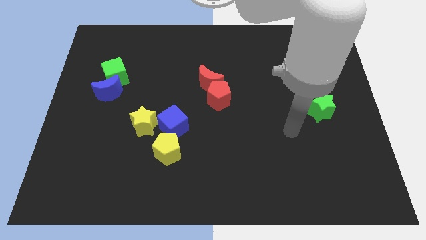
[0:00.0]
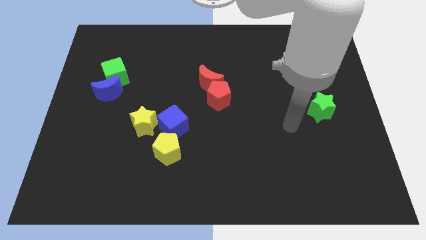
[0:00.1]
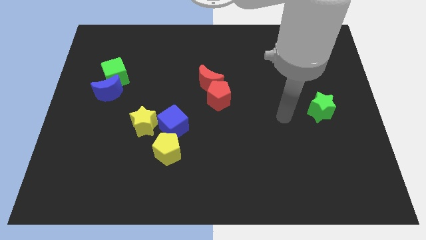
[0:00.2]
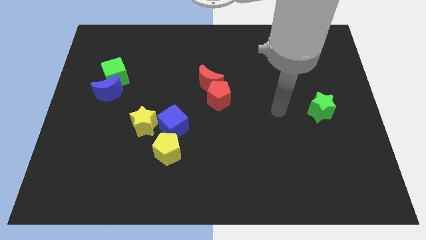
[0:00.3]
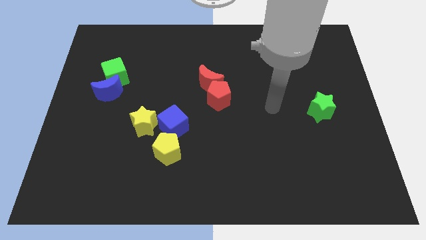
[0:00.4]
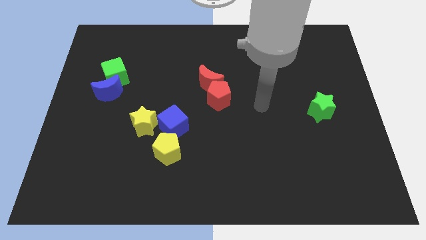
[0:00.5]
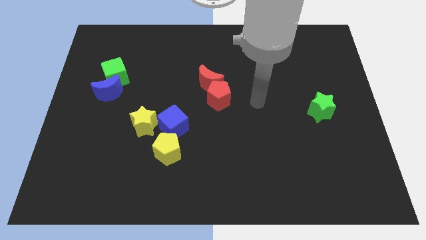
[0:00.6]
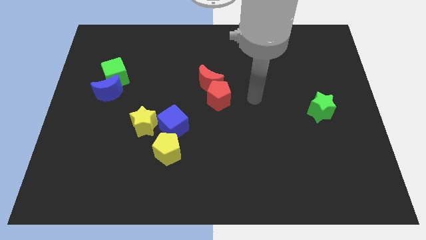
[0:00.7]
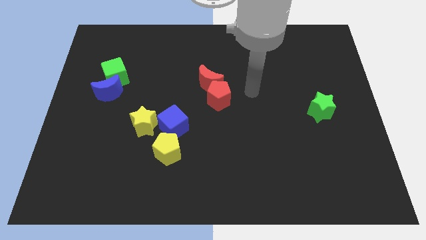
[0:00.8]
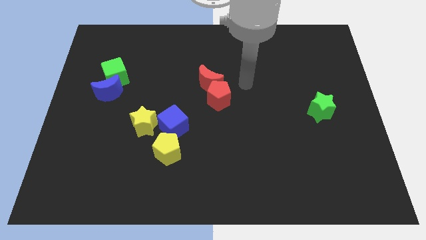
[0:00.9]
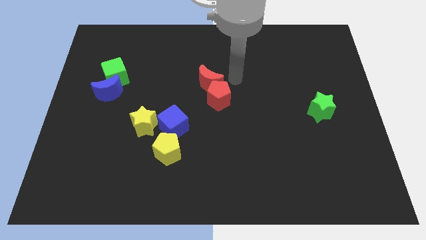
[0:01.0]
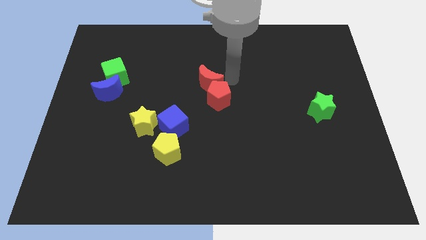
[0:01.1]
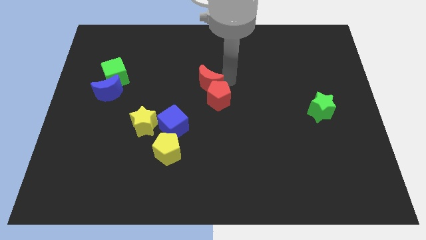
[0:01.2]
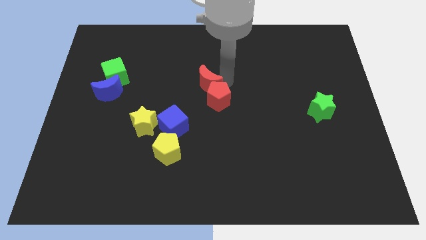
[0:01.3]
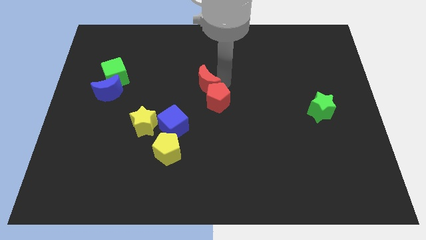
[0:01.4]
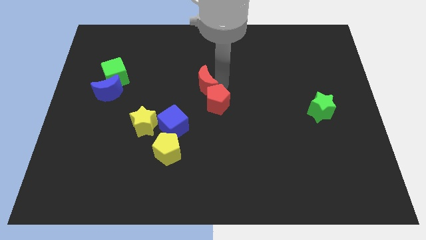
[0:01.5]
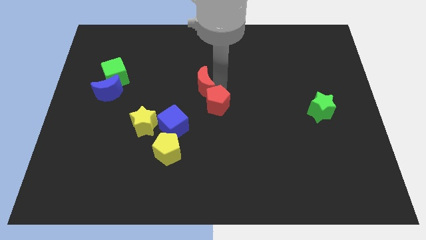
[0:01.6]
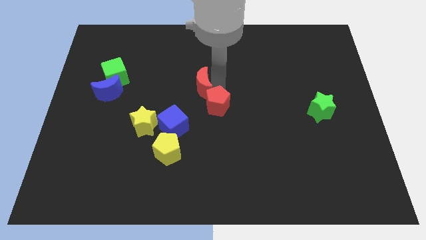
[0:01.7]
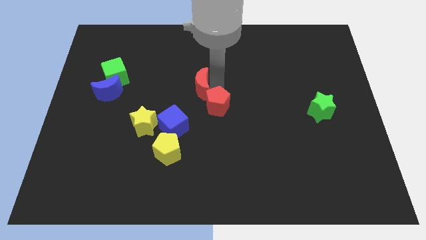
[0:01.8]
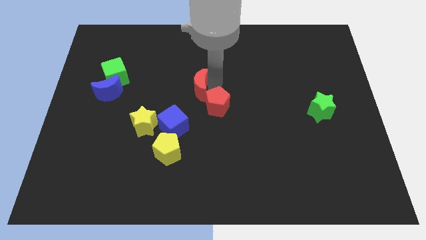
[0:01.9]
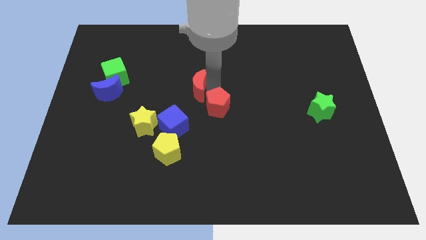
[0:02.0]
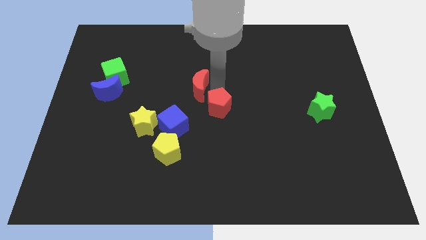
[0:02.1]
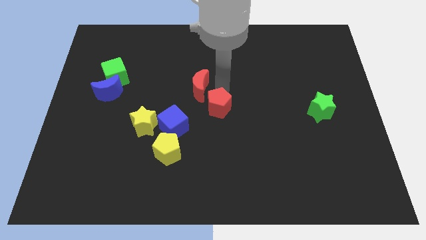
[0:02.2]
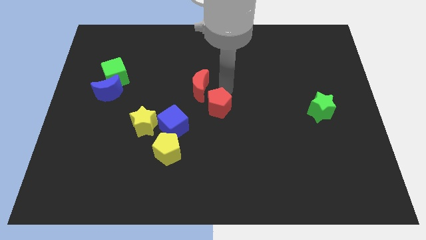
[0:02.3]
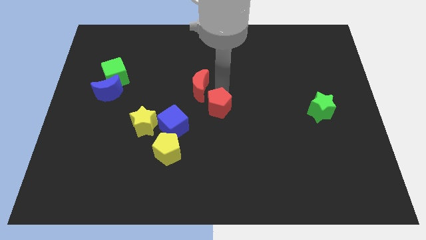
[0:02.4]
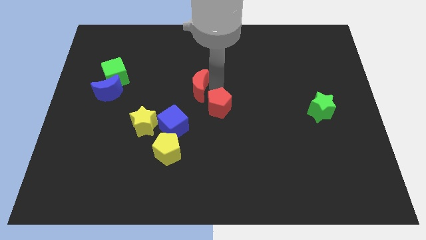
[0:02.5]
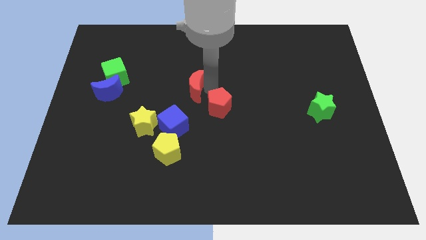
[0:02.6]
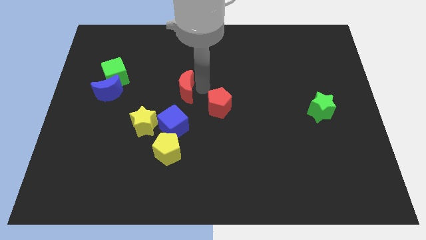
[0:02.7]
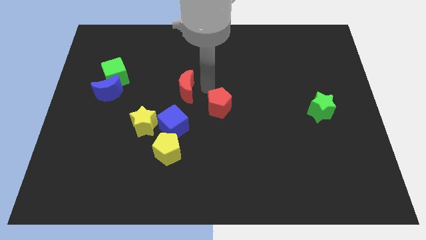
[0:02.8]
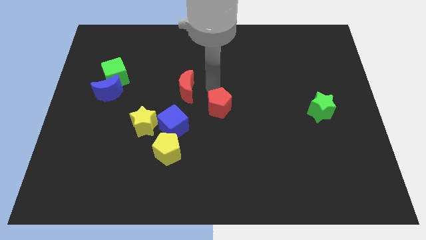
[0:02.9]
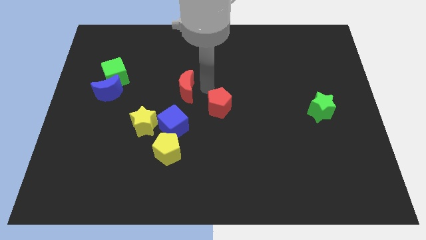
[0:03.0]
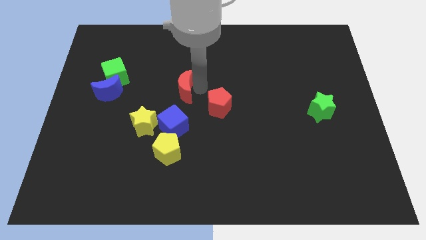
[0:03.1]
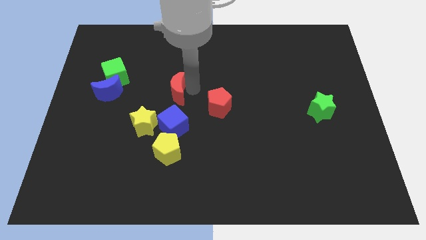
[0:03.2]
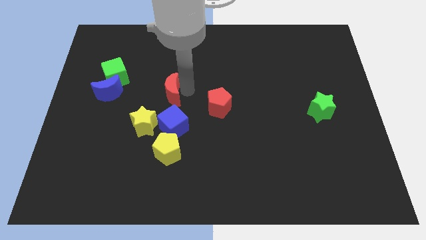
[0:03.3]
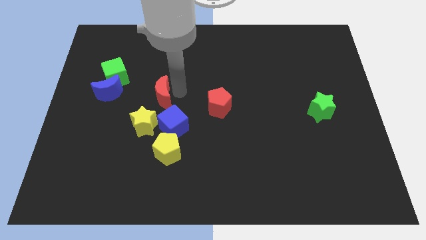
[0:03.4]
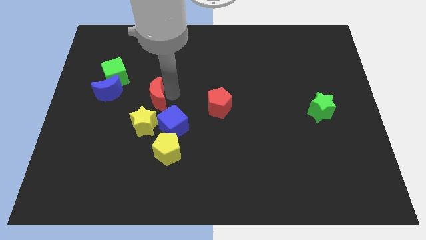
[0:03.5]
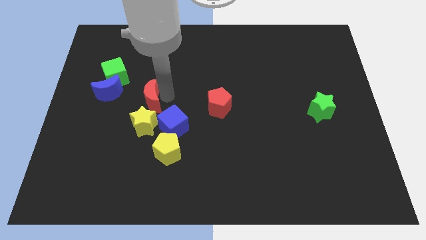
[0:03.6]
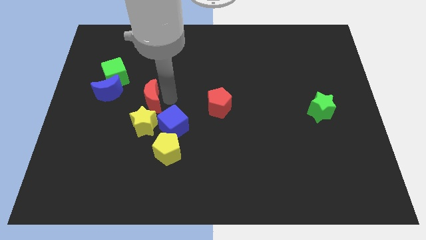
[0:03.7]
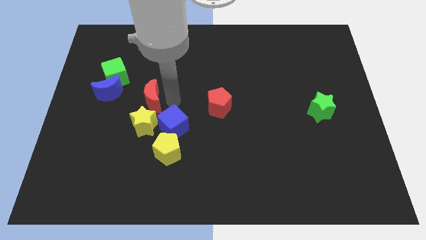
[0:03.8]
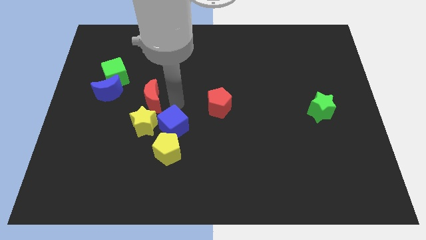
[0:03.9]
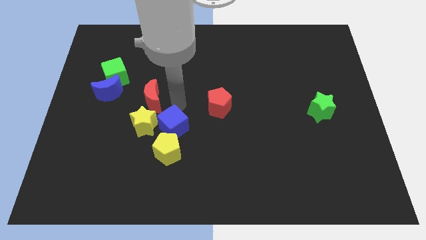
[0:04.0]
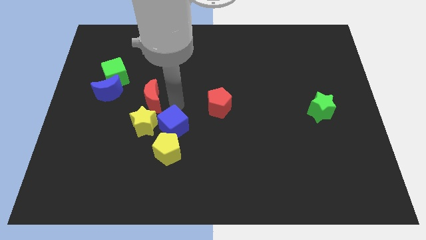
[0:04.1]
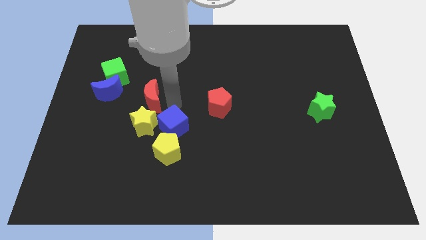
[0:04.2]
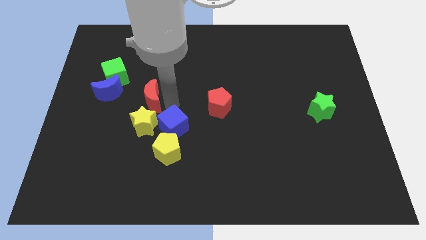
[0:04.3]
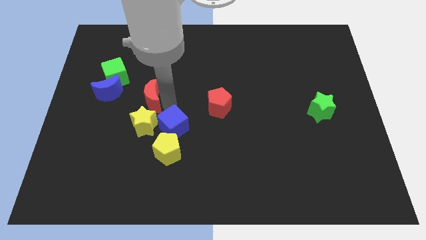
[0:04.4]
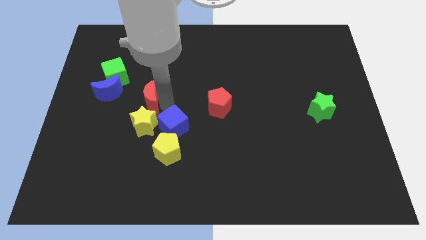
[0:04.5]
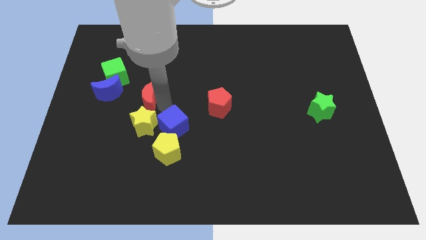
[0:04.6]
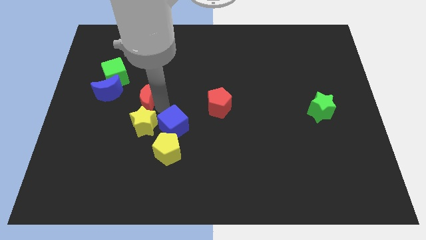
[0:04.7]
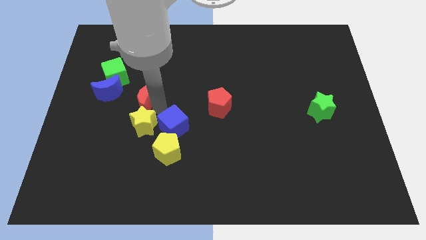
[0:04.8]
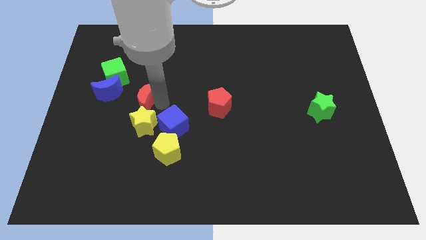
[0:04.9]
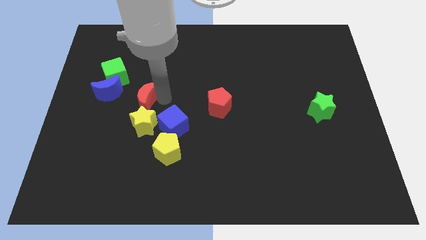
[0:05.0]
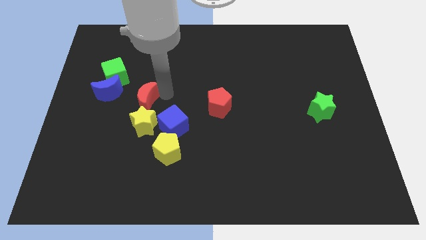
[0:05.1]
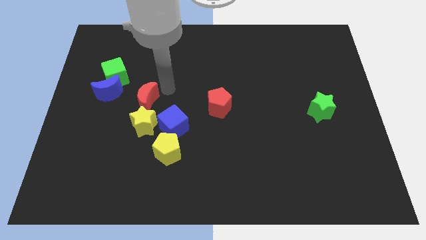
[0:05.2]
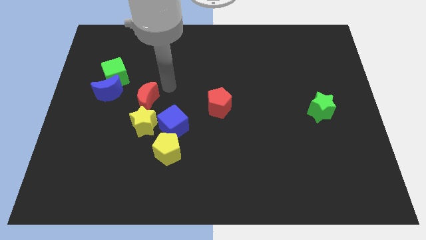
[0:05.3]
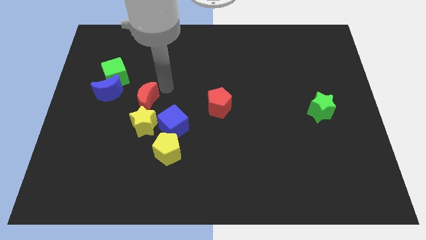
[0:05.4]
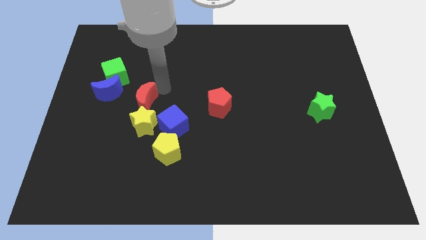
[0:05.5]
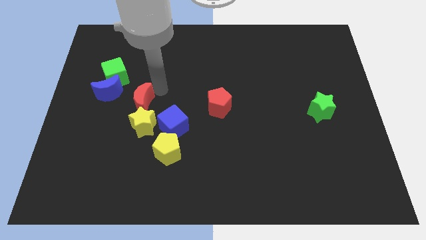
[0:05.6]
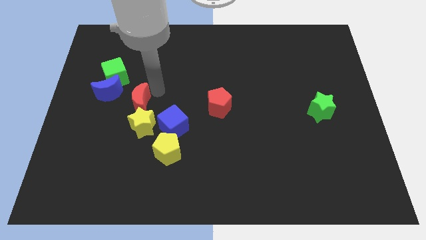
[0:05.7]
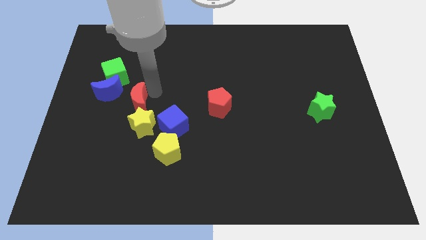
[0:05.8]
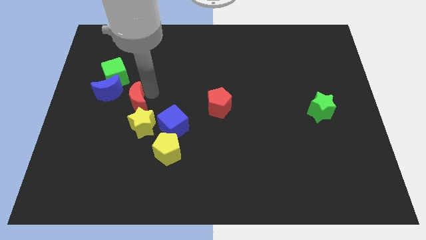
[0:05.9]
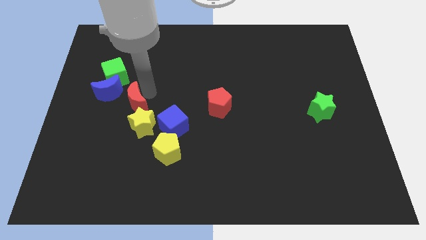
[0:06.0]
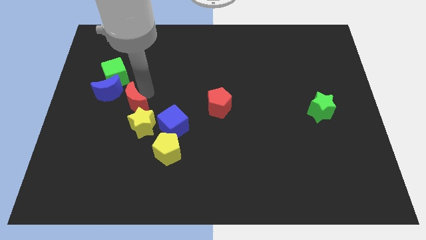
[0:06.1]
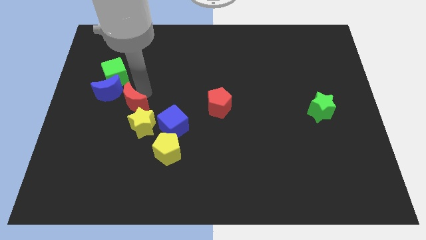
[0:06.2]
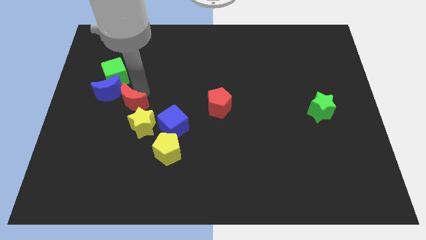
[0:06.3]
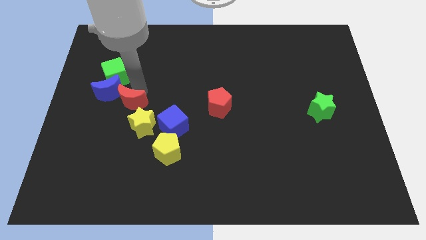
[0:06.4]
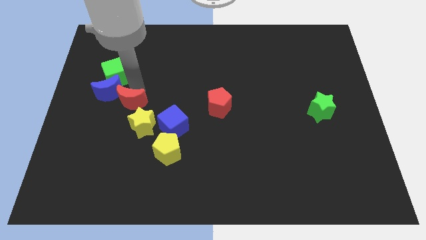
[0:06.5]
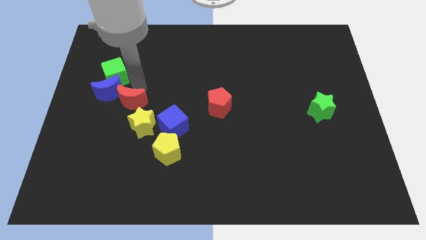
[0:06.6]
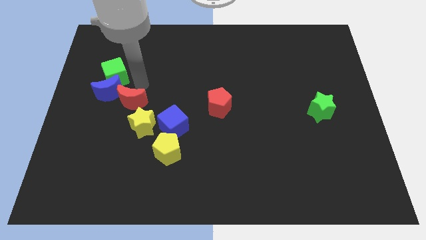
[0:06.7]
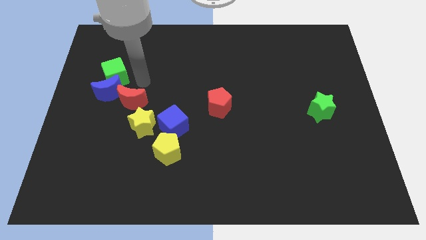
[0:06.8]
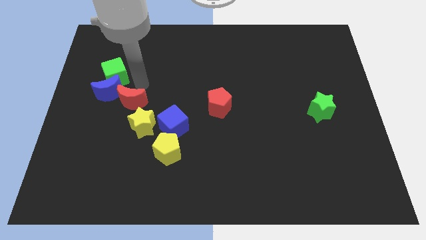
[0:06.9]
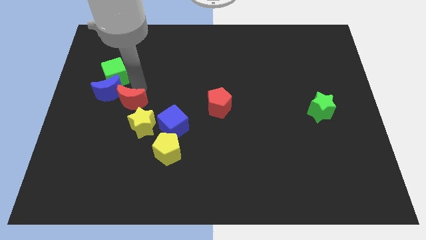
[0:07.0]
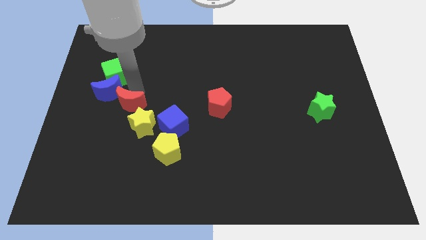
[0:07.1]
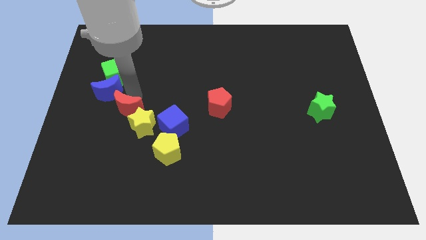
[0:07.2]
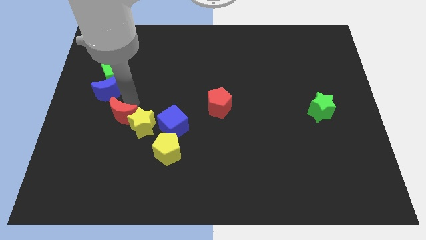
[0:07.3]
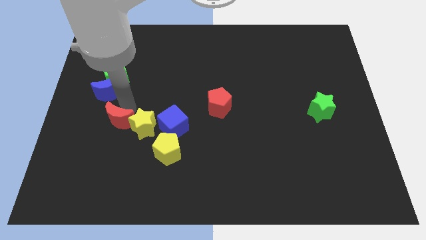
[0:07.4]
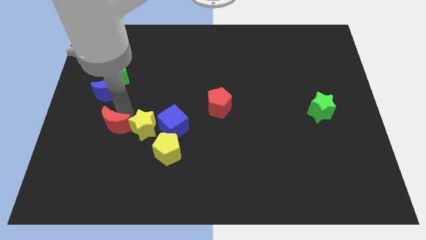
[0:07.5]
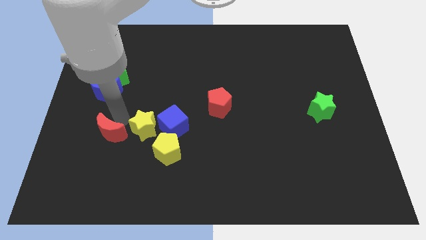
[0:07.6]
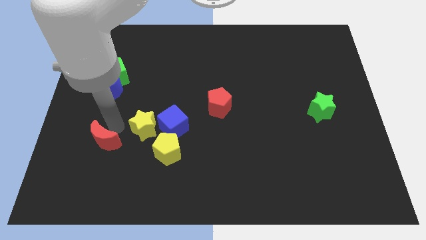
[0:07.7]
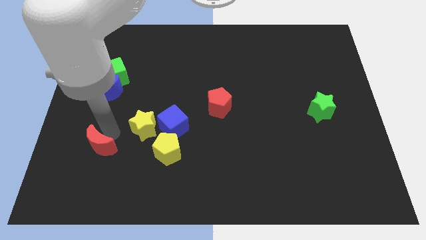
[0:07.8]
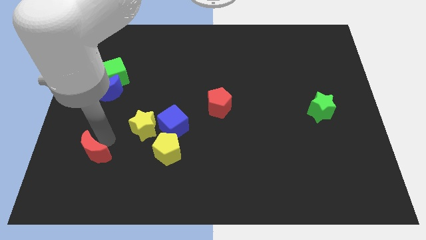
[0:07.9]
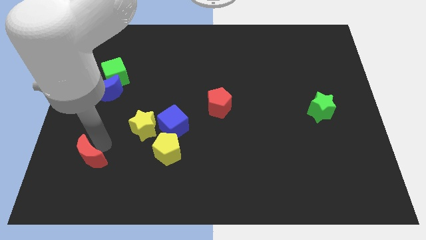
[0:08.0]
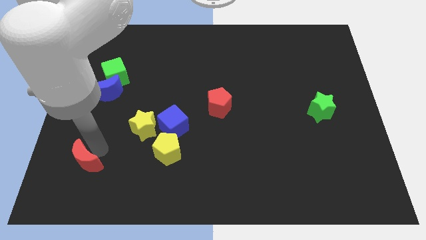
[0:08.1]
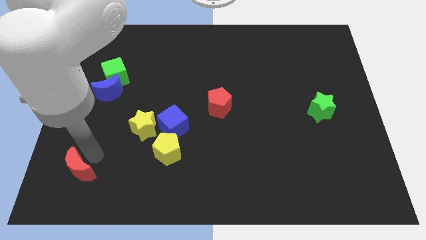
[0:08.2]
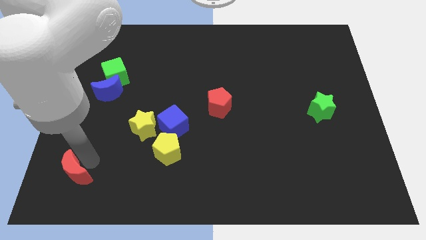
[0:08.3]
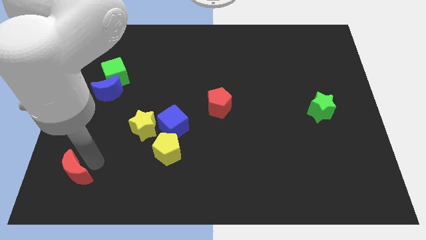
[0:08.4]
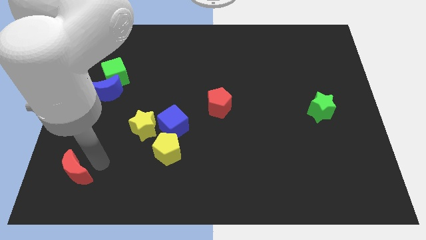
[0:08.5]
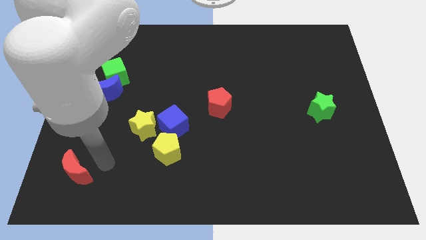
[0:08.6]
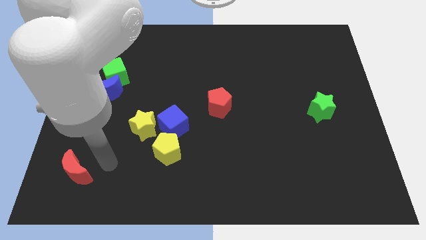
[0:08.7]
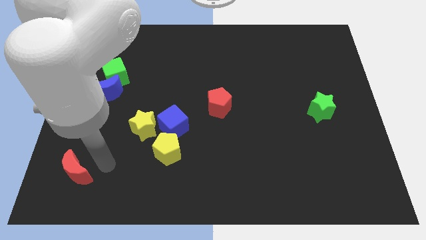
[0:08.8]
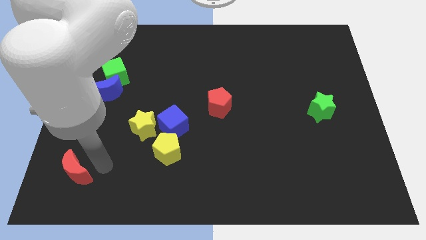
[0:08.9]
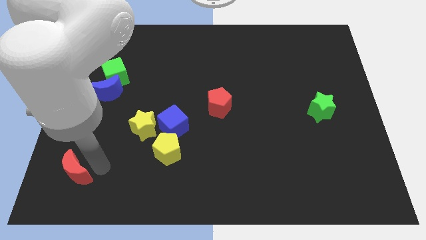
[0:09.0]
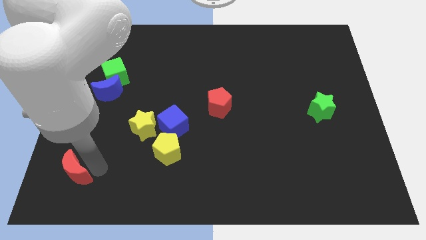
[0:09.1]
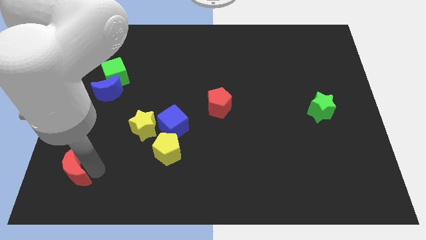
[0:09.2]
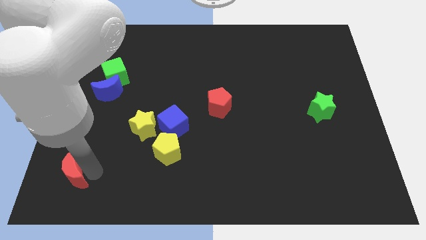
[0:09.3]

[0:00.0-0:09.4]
push the red moon to the lower left corner
